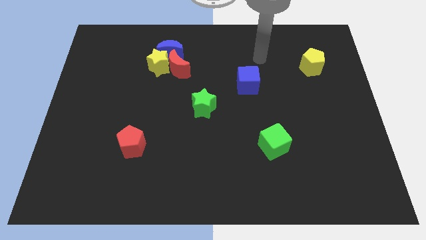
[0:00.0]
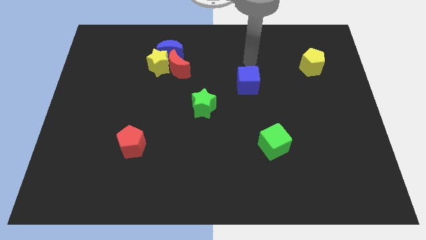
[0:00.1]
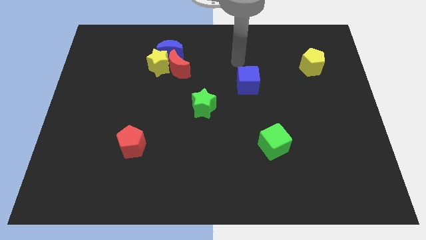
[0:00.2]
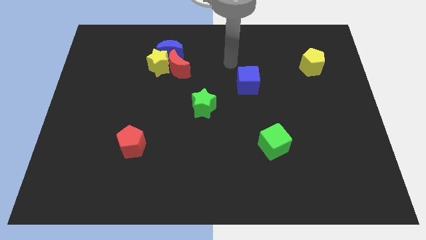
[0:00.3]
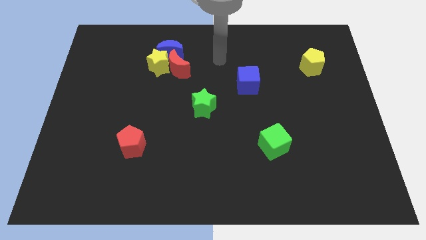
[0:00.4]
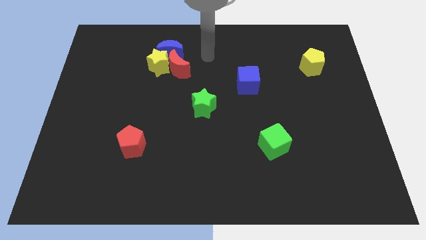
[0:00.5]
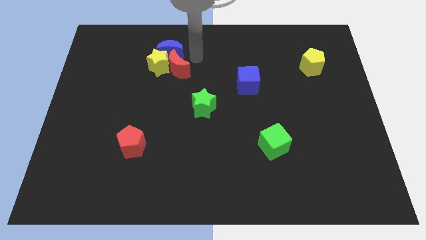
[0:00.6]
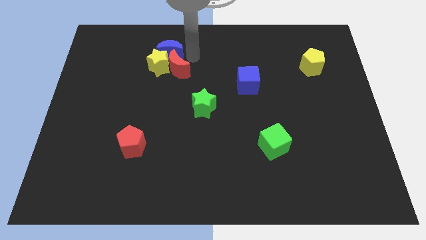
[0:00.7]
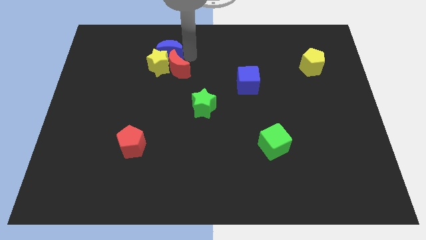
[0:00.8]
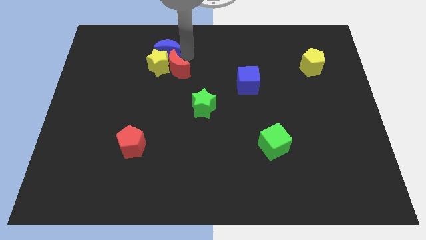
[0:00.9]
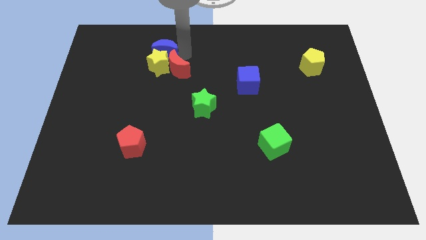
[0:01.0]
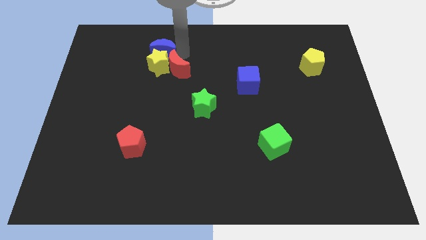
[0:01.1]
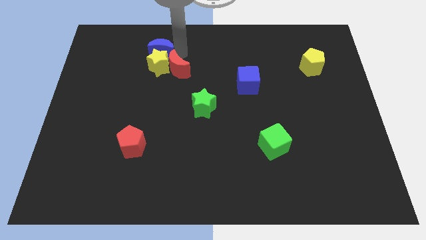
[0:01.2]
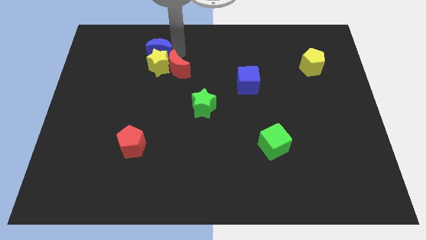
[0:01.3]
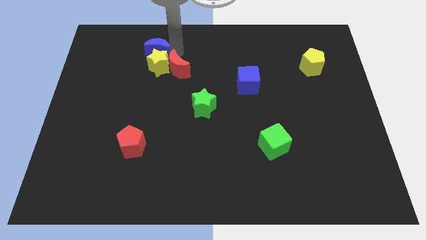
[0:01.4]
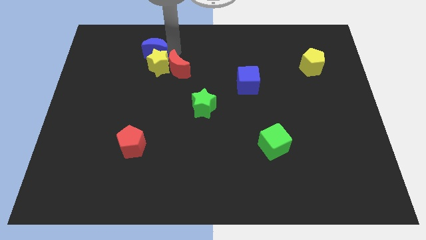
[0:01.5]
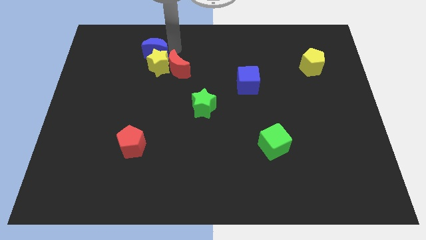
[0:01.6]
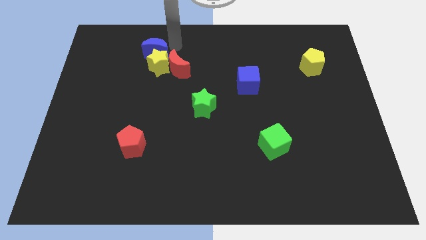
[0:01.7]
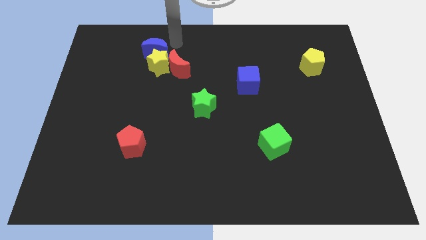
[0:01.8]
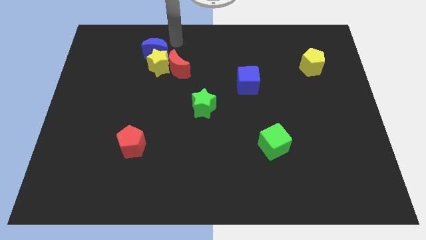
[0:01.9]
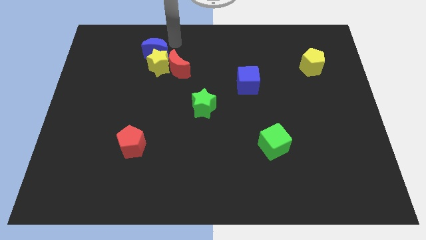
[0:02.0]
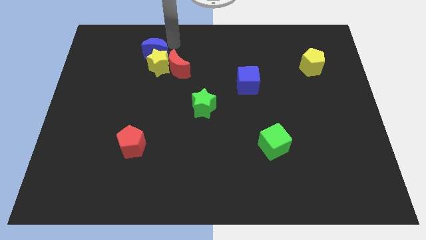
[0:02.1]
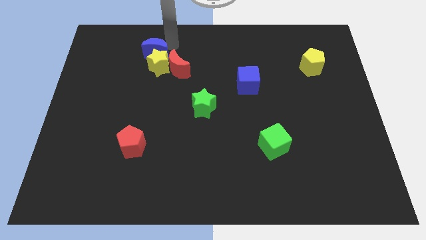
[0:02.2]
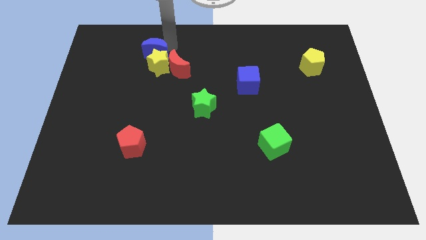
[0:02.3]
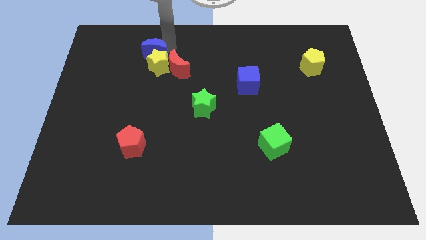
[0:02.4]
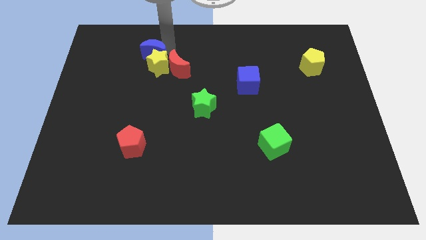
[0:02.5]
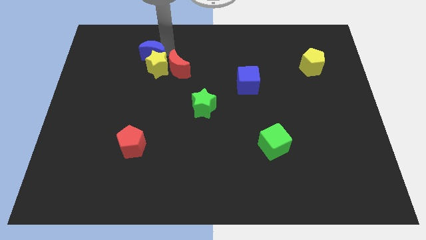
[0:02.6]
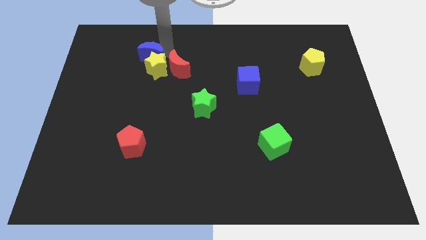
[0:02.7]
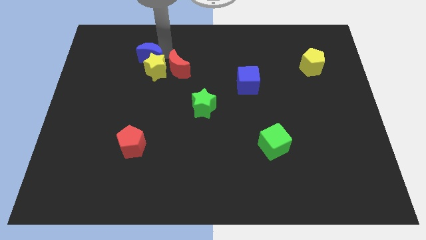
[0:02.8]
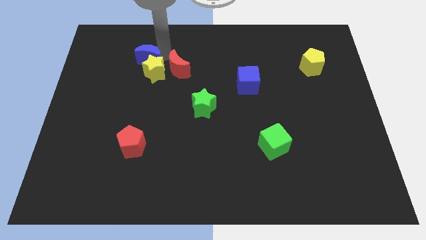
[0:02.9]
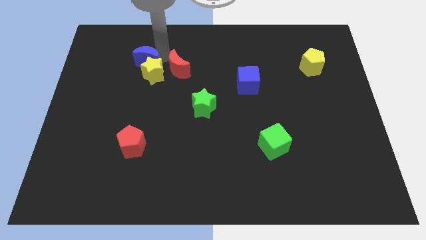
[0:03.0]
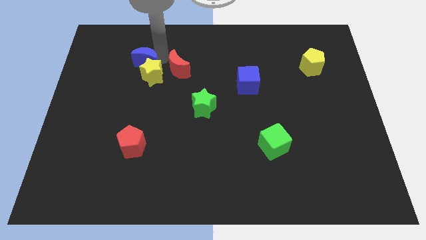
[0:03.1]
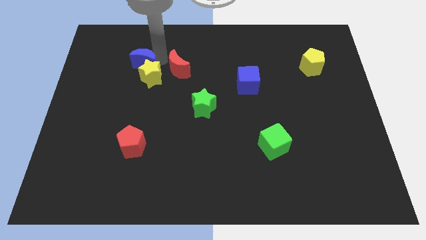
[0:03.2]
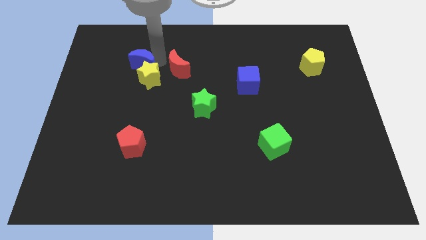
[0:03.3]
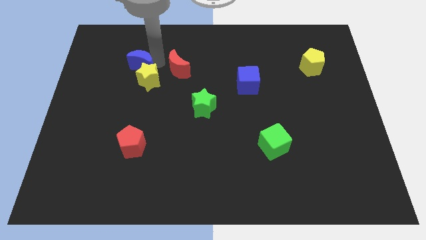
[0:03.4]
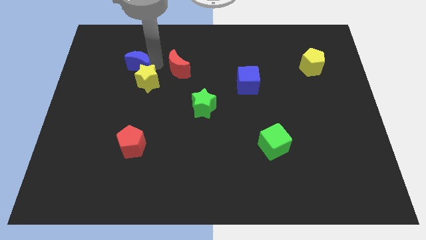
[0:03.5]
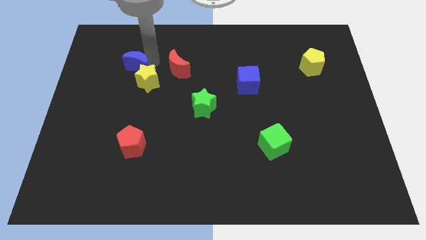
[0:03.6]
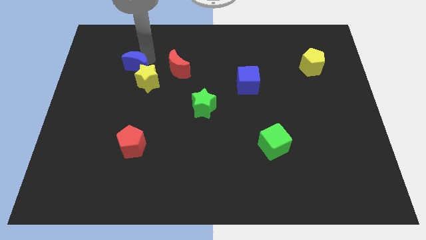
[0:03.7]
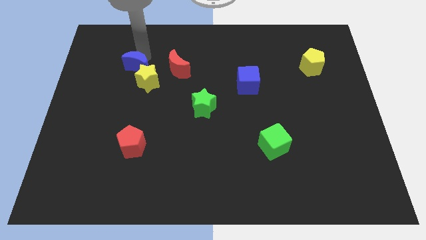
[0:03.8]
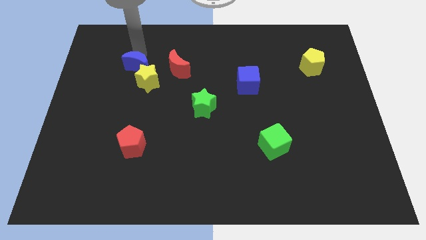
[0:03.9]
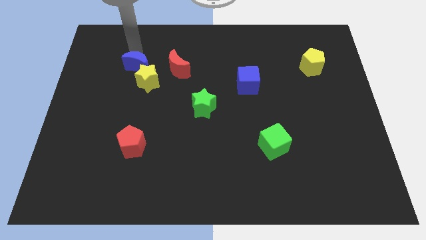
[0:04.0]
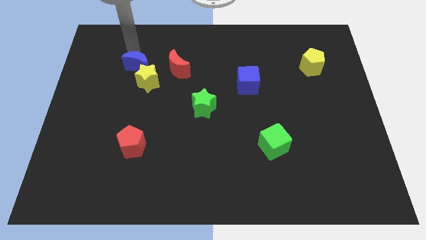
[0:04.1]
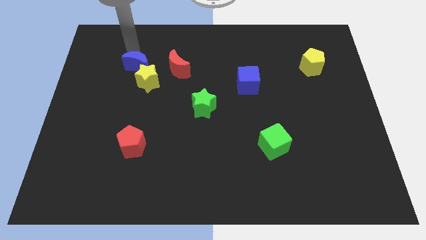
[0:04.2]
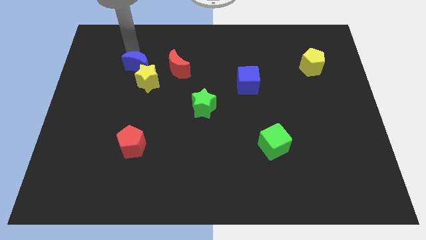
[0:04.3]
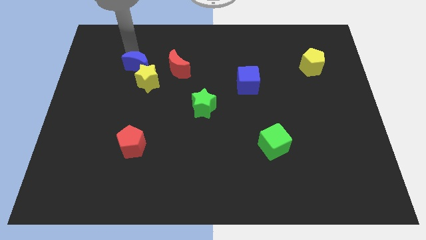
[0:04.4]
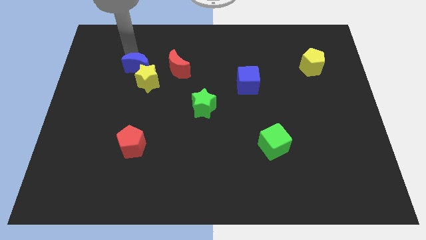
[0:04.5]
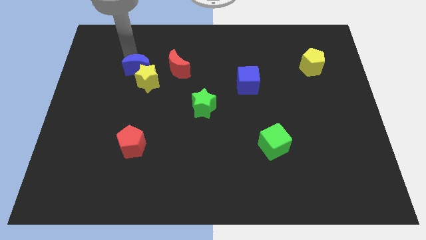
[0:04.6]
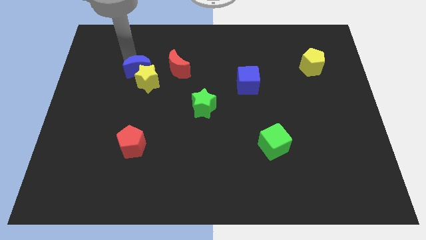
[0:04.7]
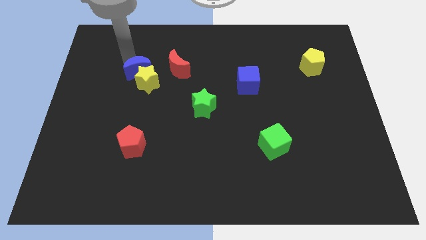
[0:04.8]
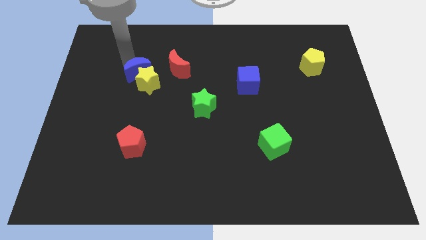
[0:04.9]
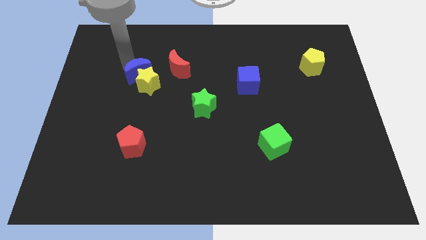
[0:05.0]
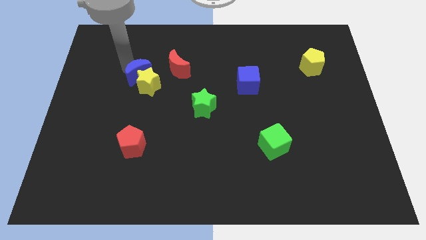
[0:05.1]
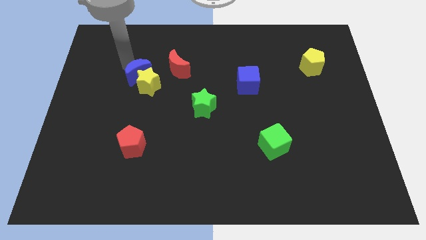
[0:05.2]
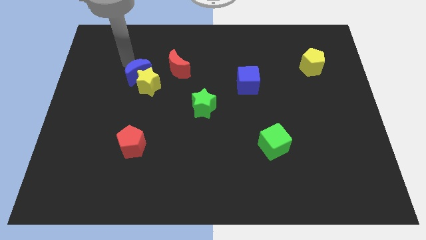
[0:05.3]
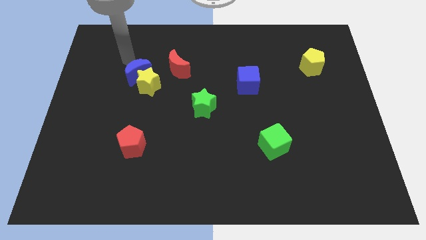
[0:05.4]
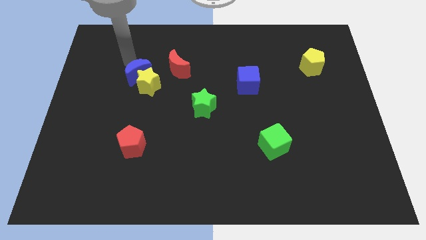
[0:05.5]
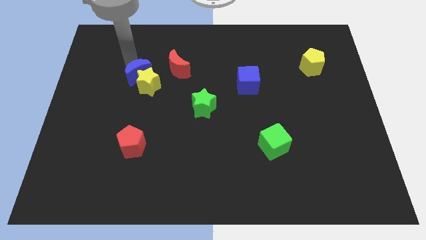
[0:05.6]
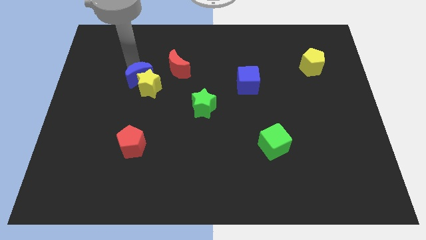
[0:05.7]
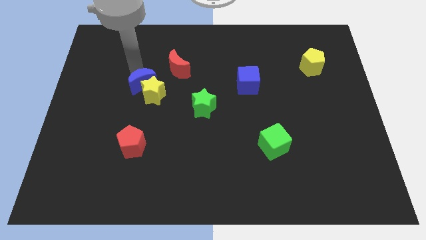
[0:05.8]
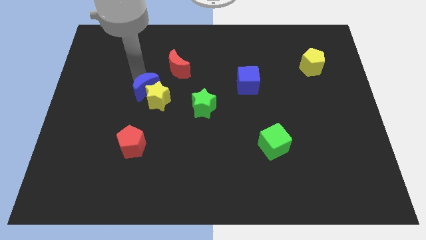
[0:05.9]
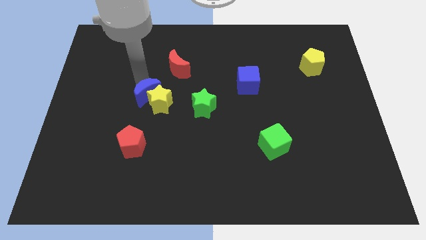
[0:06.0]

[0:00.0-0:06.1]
push the blue moon to the left side of the green star
